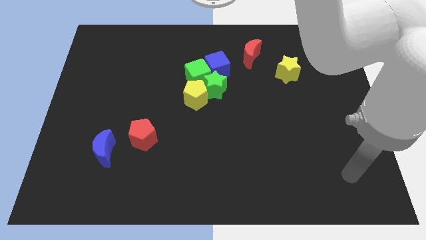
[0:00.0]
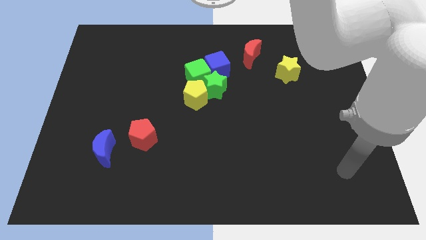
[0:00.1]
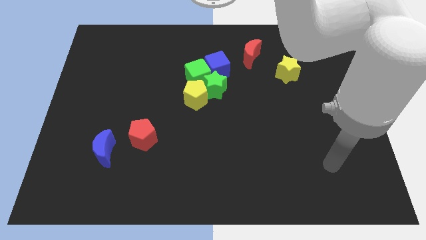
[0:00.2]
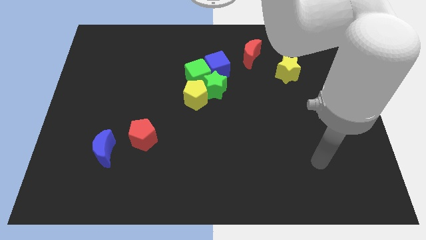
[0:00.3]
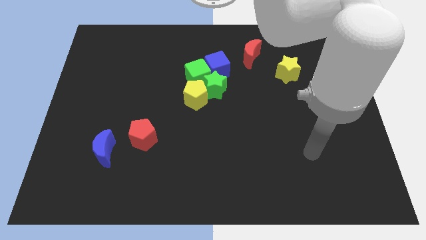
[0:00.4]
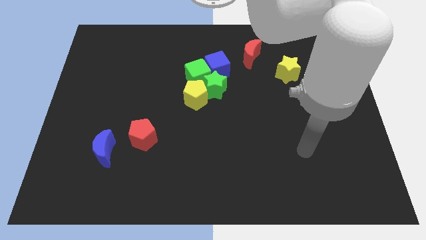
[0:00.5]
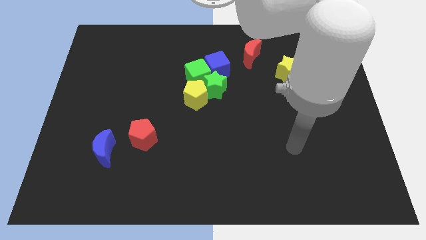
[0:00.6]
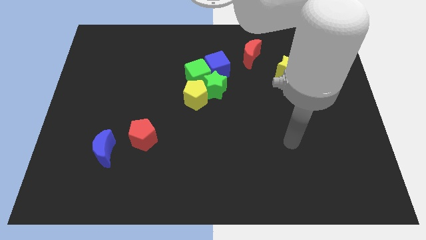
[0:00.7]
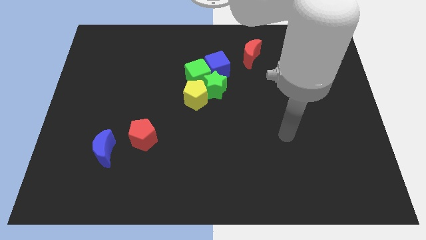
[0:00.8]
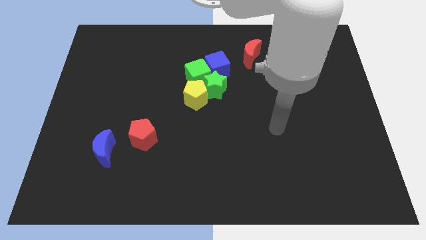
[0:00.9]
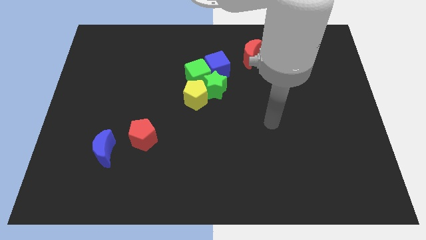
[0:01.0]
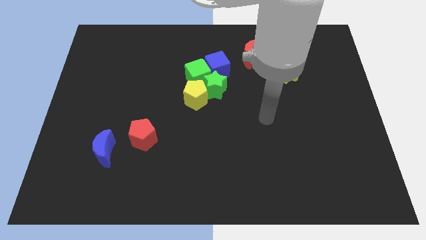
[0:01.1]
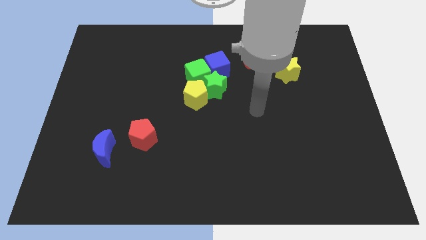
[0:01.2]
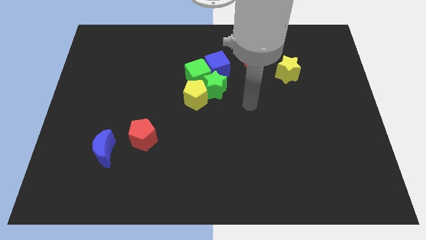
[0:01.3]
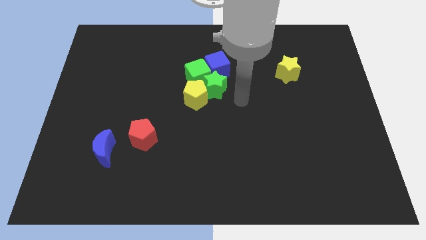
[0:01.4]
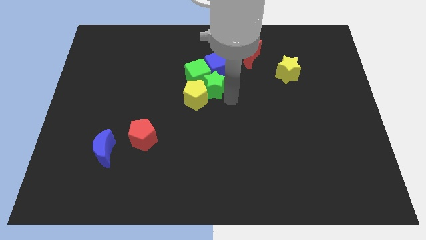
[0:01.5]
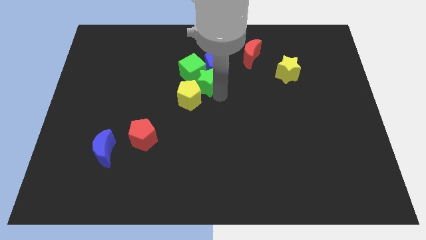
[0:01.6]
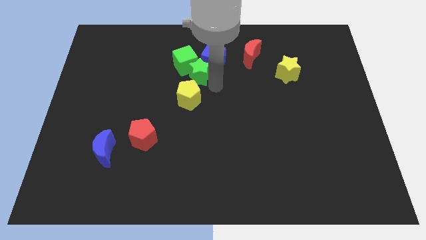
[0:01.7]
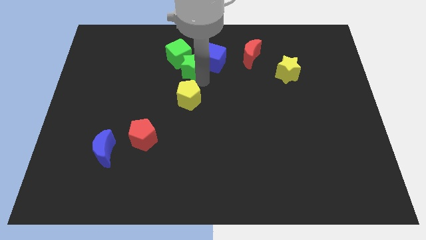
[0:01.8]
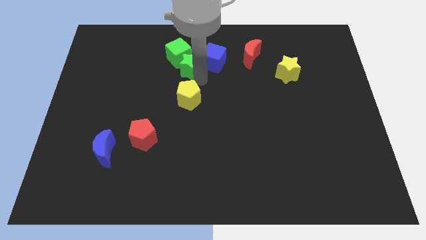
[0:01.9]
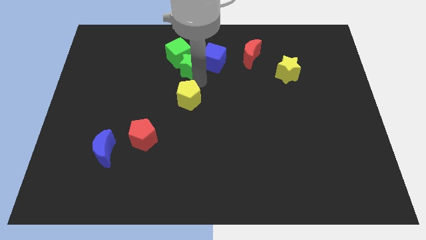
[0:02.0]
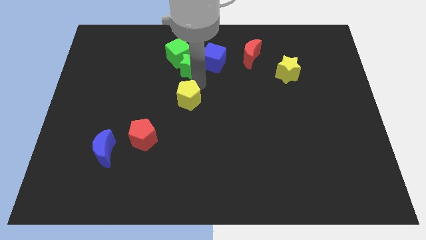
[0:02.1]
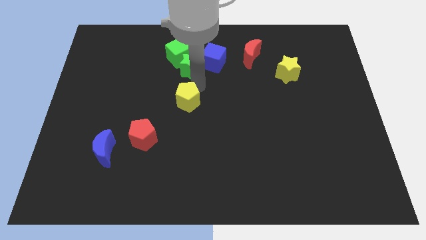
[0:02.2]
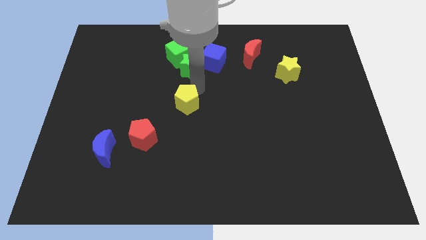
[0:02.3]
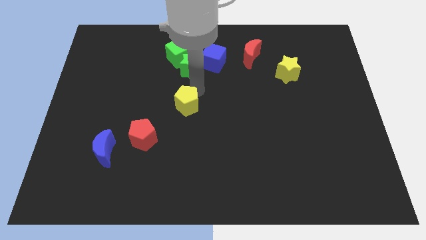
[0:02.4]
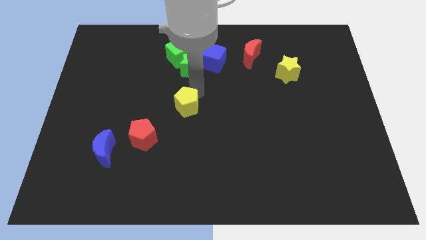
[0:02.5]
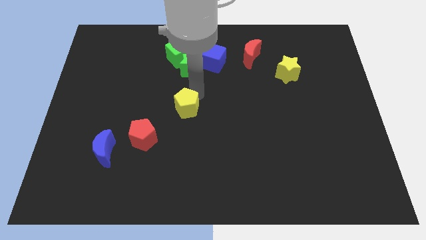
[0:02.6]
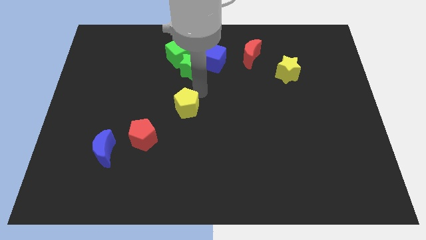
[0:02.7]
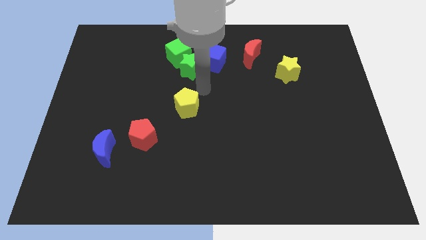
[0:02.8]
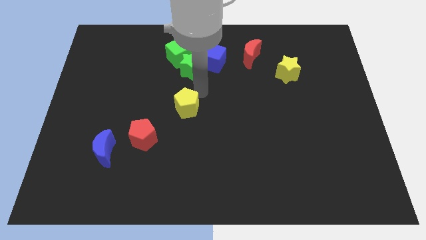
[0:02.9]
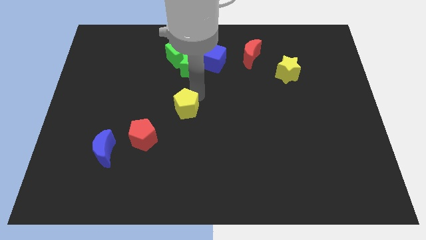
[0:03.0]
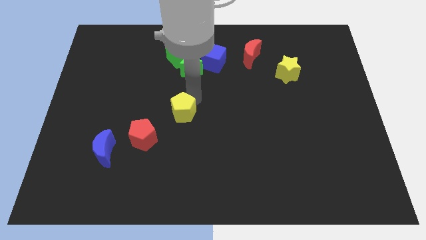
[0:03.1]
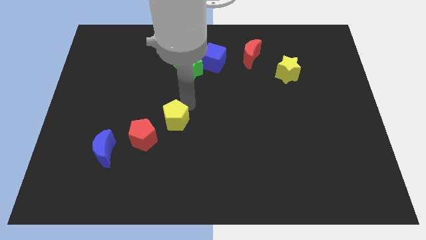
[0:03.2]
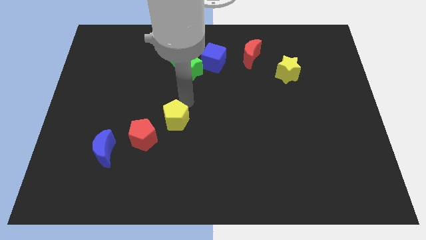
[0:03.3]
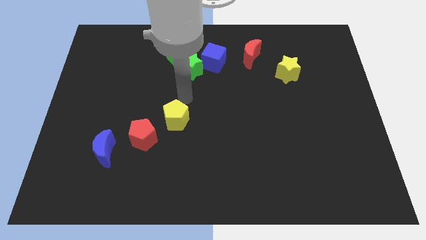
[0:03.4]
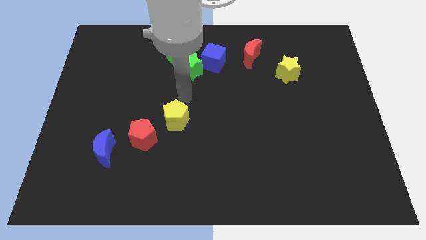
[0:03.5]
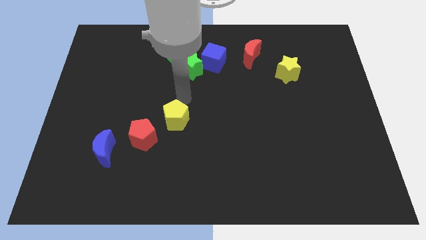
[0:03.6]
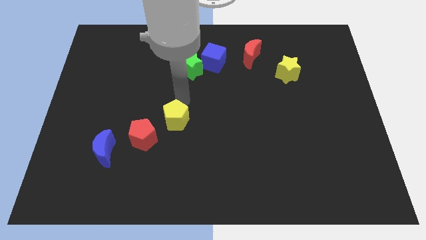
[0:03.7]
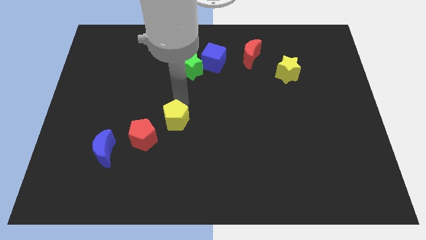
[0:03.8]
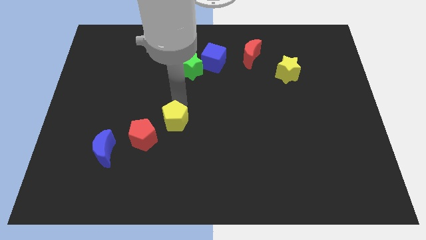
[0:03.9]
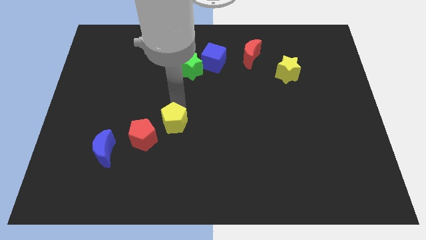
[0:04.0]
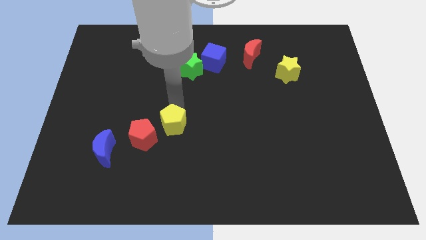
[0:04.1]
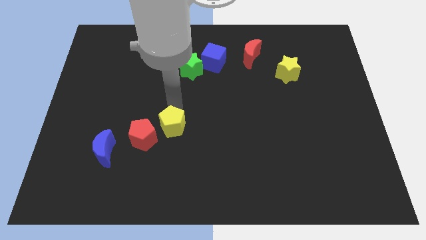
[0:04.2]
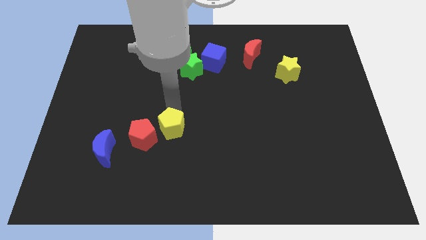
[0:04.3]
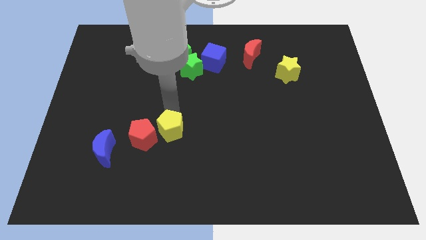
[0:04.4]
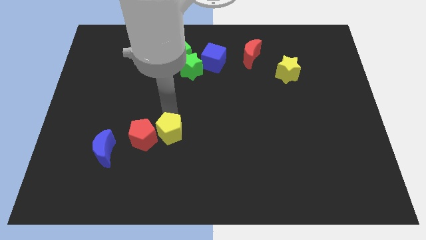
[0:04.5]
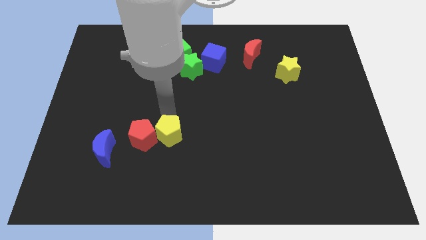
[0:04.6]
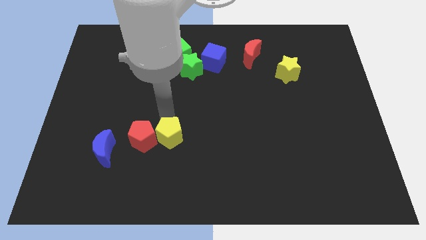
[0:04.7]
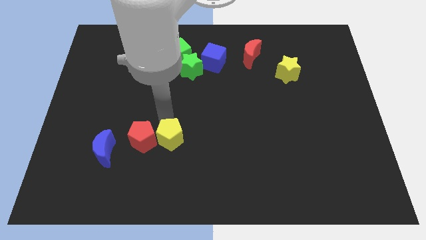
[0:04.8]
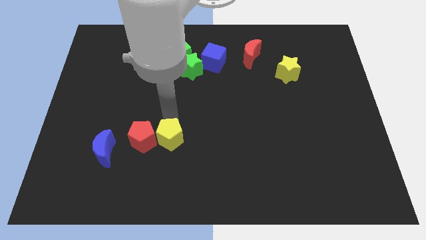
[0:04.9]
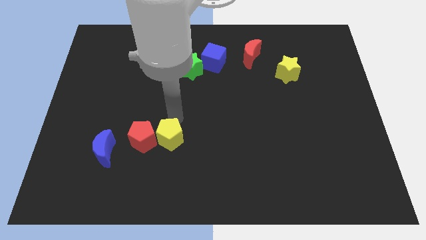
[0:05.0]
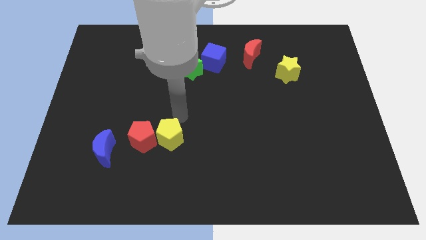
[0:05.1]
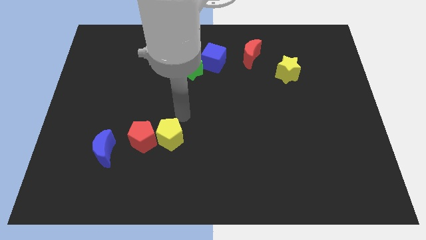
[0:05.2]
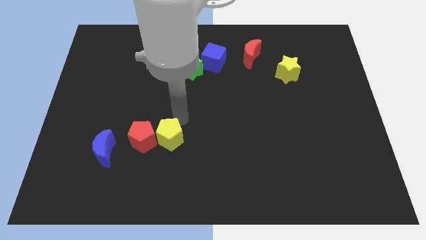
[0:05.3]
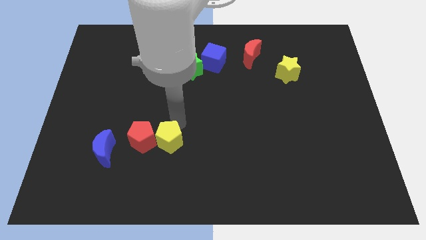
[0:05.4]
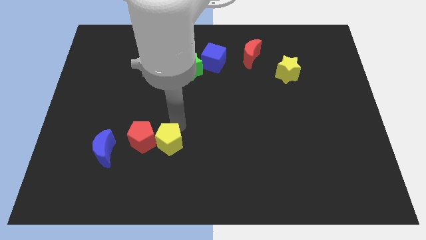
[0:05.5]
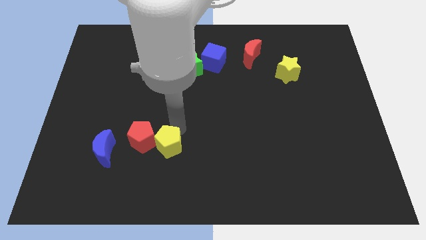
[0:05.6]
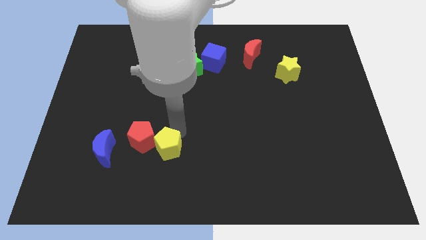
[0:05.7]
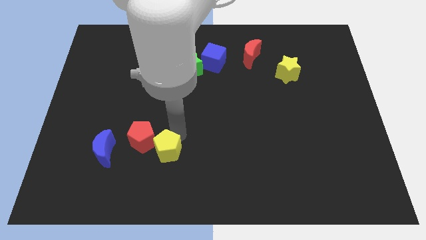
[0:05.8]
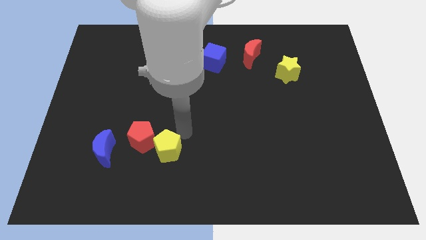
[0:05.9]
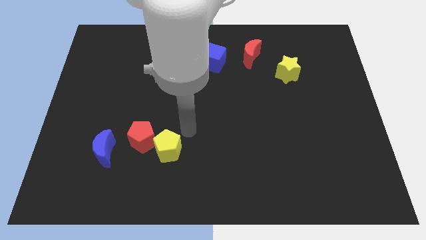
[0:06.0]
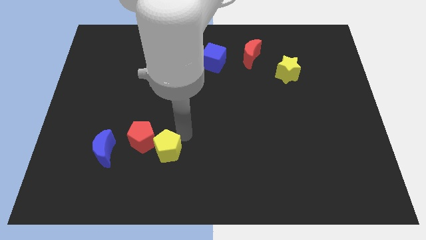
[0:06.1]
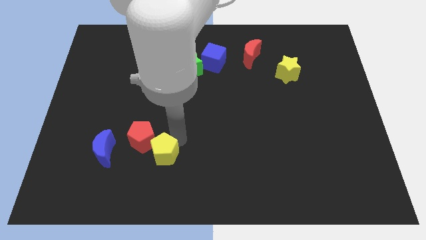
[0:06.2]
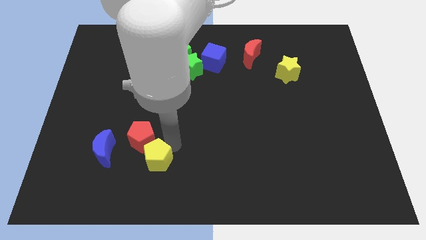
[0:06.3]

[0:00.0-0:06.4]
put the yellow pentagon below the red pentagon
